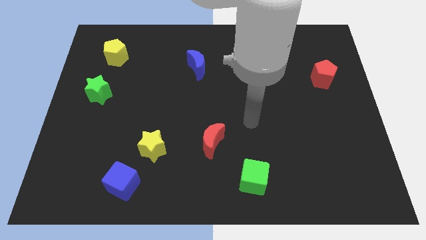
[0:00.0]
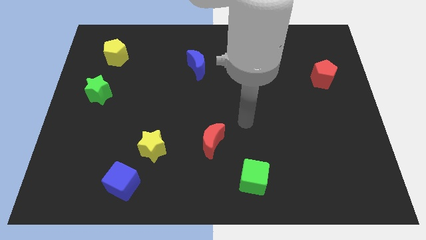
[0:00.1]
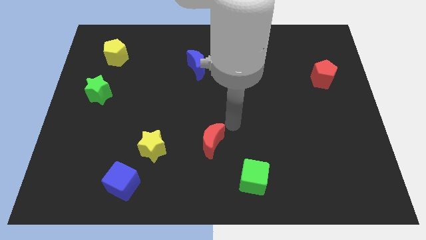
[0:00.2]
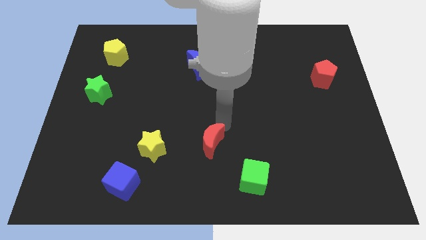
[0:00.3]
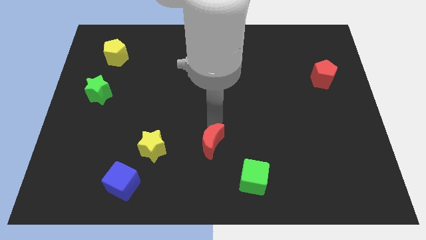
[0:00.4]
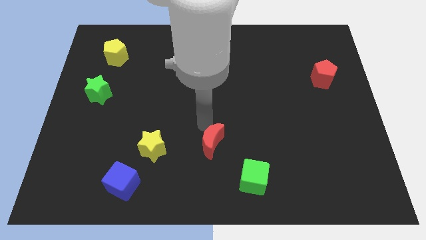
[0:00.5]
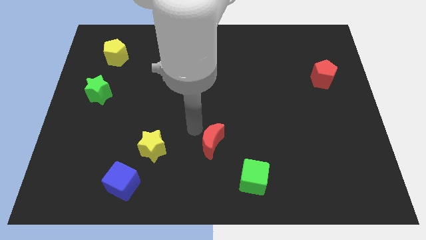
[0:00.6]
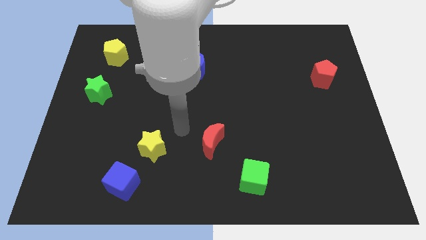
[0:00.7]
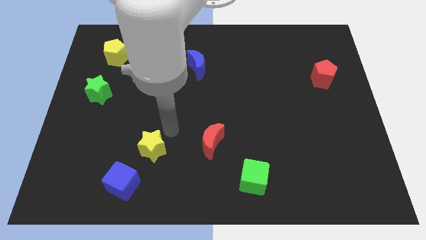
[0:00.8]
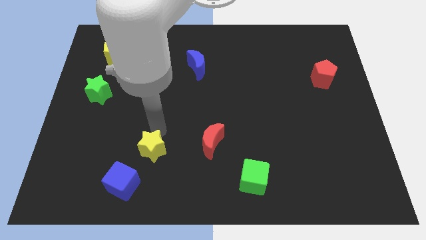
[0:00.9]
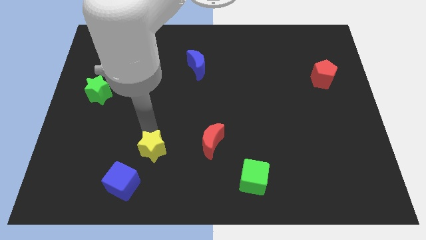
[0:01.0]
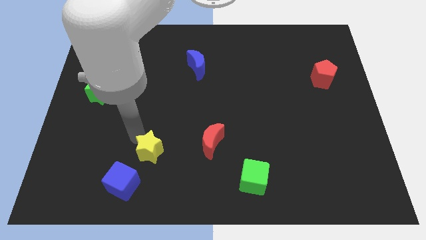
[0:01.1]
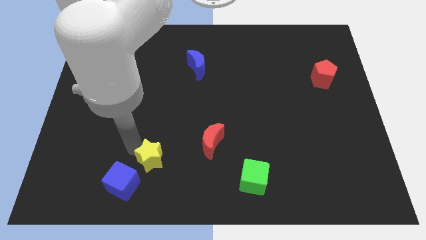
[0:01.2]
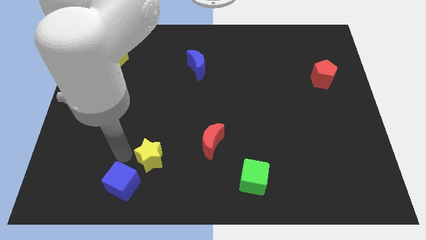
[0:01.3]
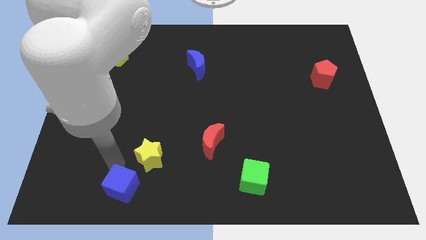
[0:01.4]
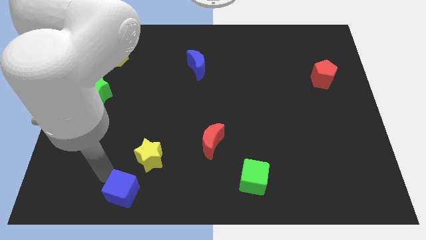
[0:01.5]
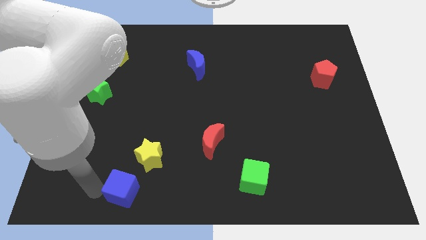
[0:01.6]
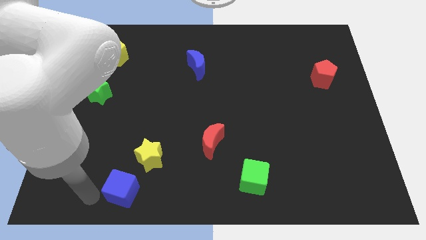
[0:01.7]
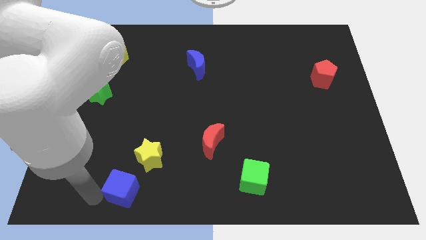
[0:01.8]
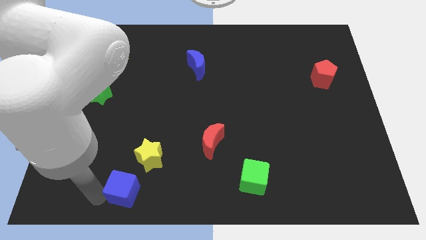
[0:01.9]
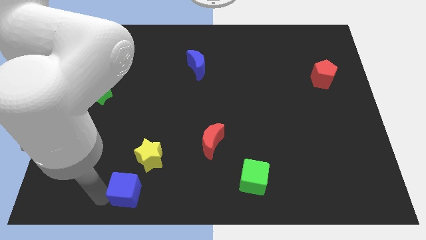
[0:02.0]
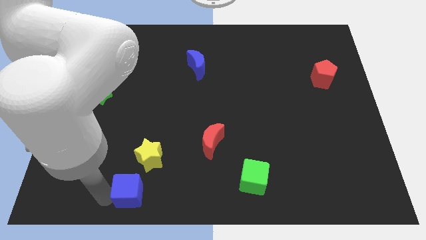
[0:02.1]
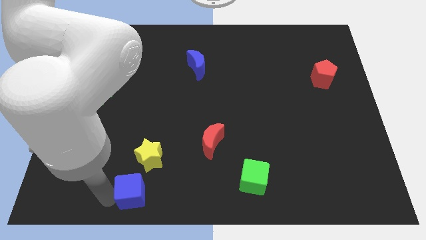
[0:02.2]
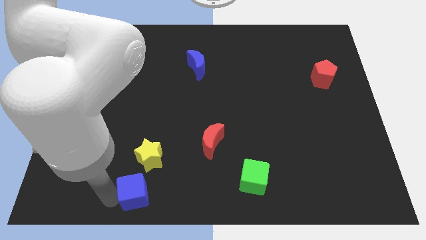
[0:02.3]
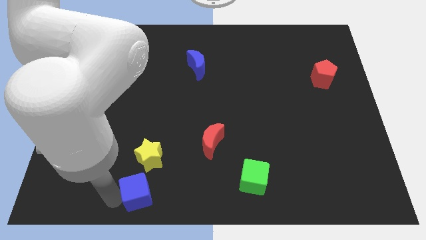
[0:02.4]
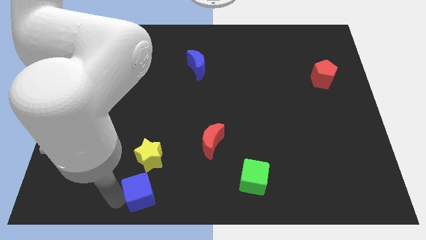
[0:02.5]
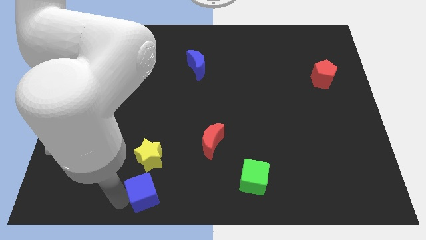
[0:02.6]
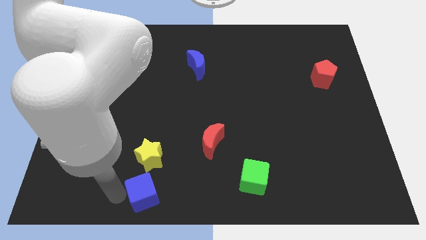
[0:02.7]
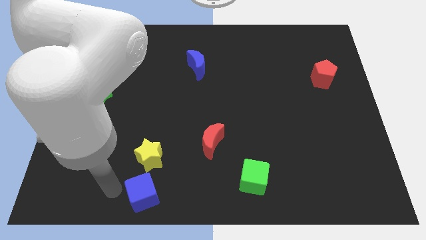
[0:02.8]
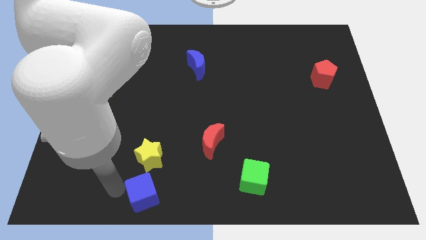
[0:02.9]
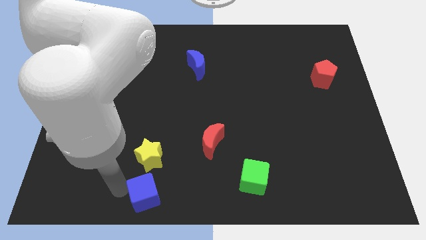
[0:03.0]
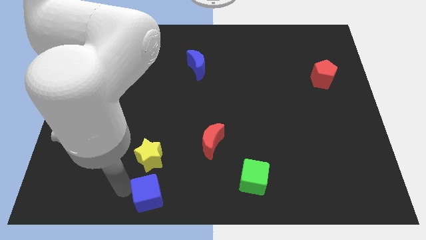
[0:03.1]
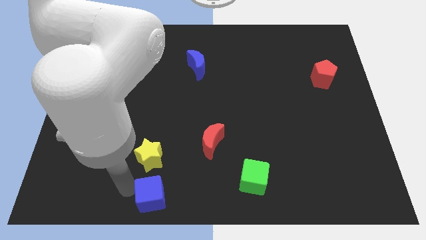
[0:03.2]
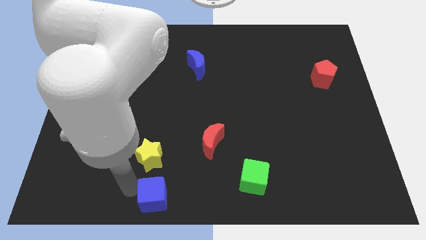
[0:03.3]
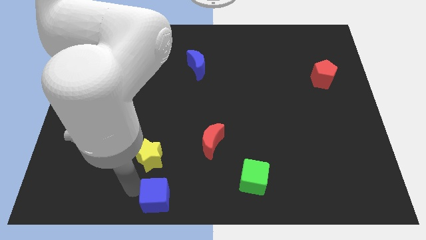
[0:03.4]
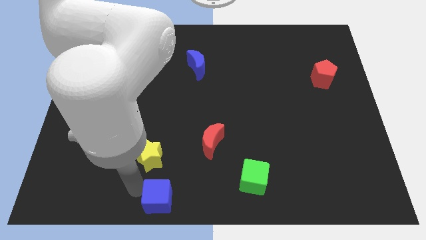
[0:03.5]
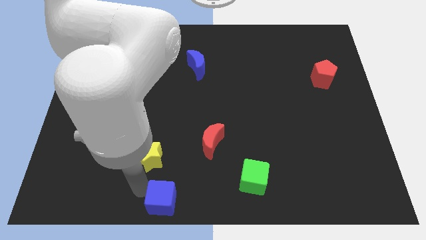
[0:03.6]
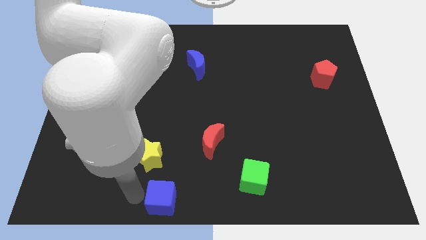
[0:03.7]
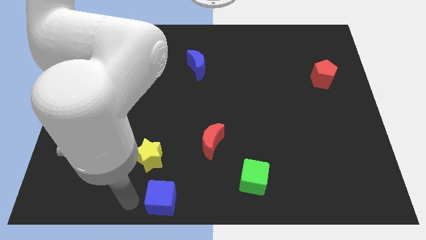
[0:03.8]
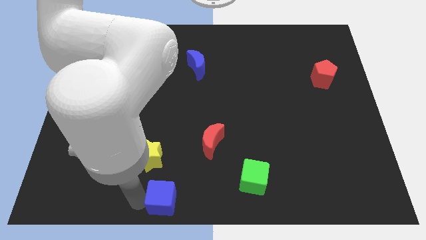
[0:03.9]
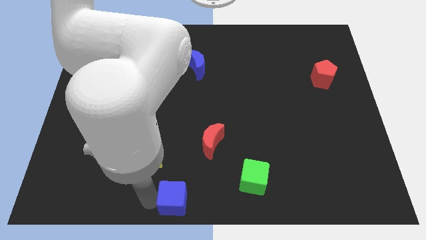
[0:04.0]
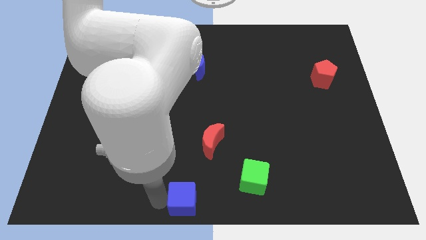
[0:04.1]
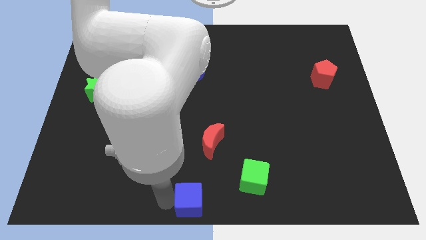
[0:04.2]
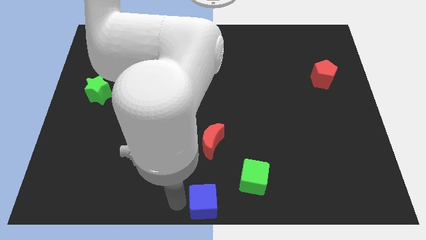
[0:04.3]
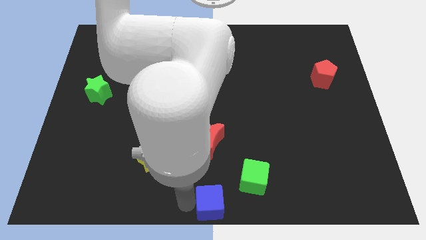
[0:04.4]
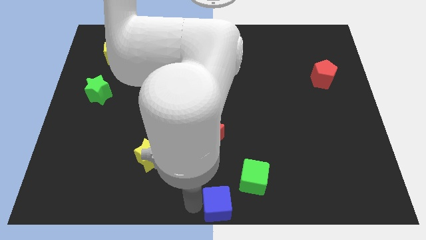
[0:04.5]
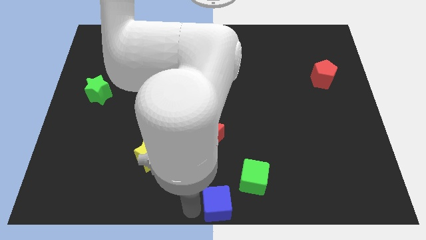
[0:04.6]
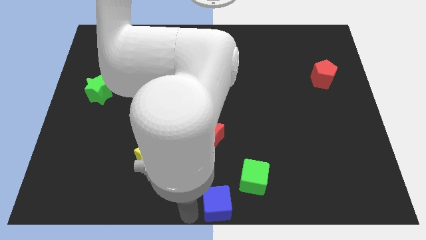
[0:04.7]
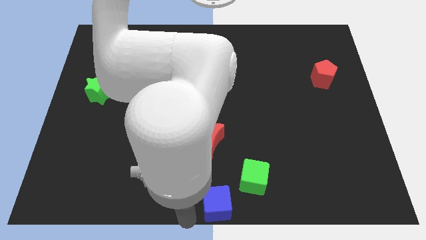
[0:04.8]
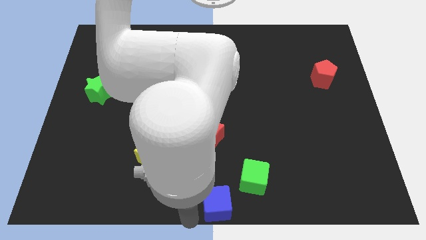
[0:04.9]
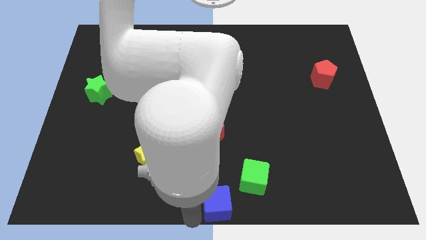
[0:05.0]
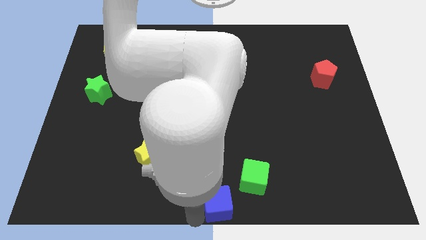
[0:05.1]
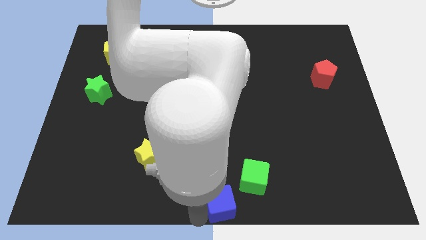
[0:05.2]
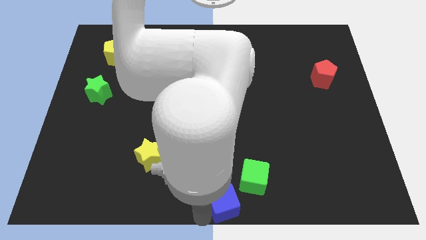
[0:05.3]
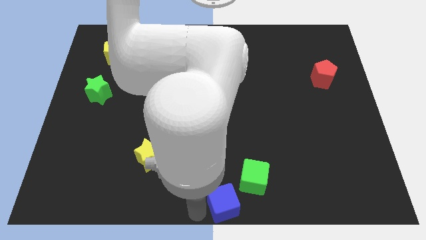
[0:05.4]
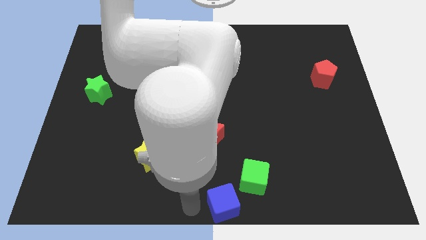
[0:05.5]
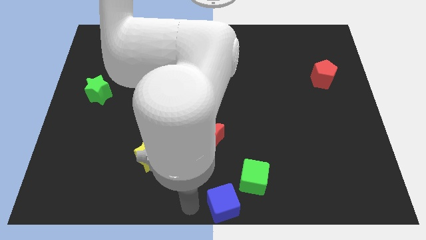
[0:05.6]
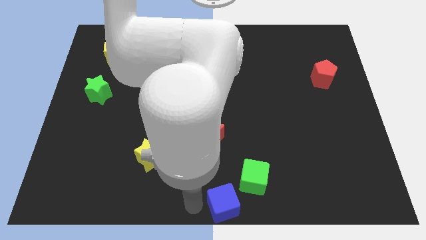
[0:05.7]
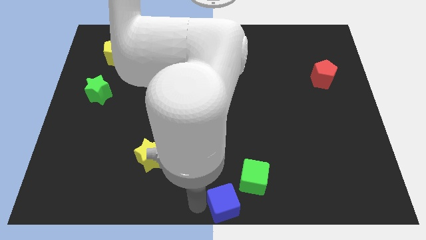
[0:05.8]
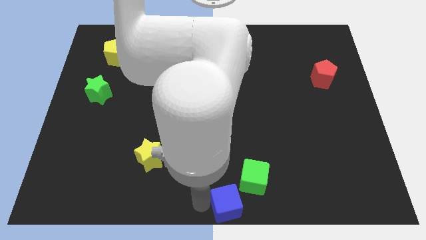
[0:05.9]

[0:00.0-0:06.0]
move the blue cube right

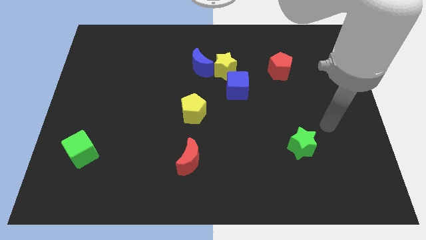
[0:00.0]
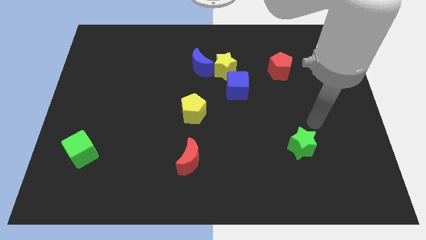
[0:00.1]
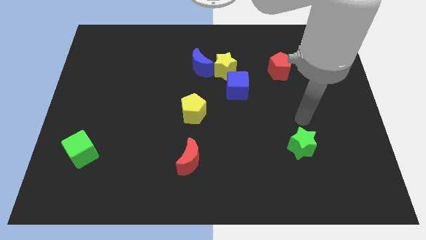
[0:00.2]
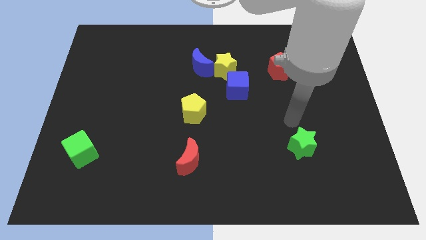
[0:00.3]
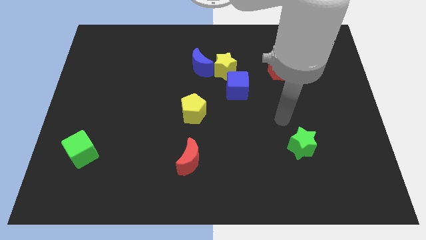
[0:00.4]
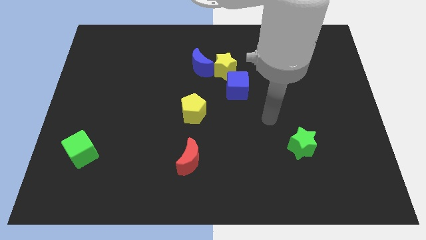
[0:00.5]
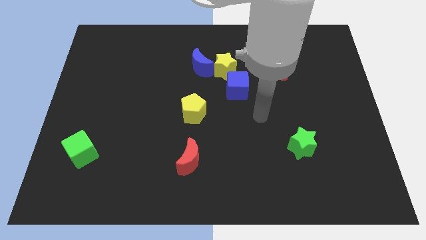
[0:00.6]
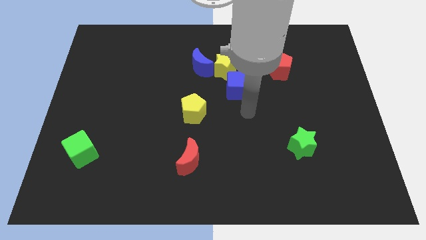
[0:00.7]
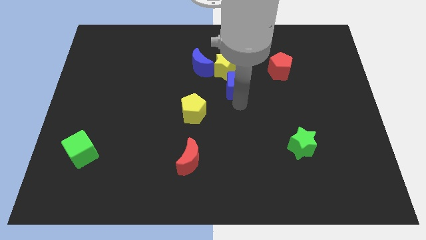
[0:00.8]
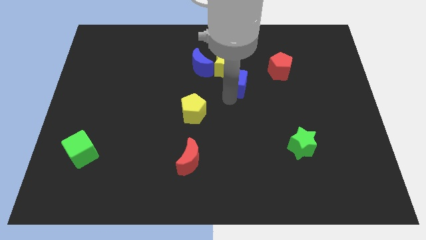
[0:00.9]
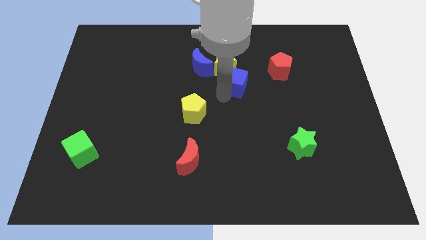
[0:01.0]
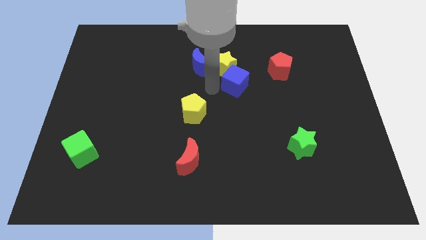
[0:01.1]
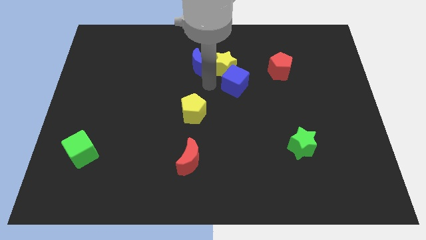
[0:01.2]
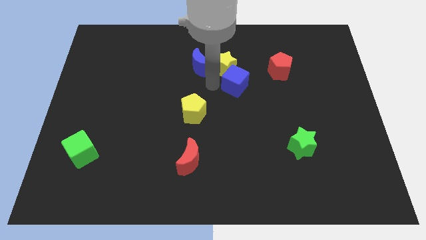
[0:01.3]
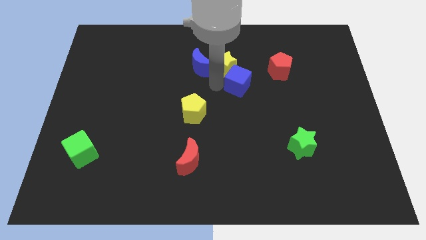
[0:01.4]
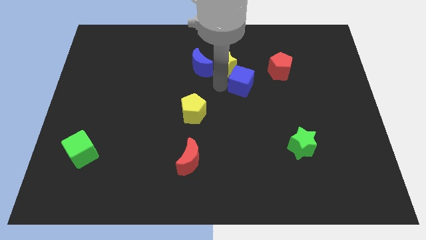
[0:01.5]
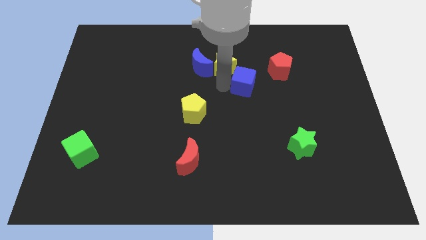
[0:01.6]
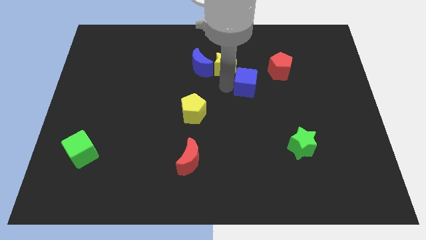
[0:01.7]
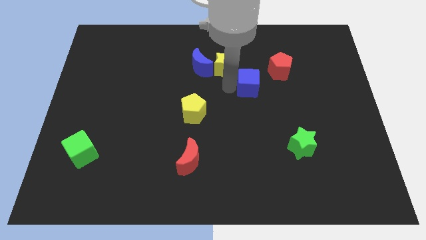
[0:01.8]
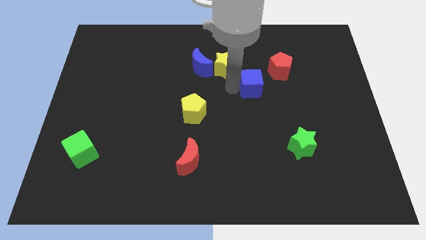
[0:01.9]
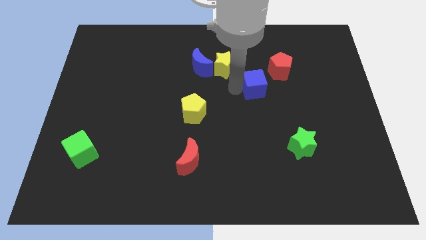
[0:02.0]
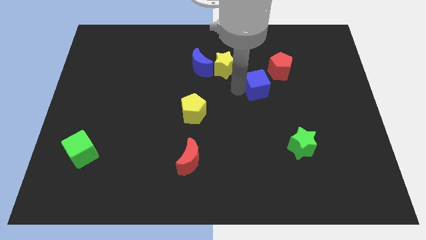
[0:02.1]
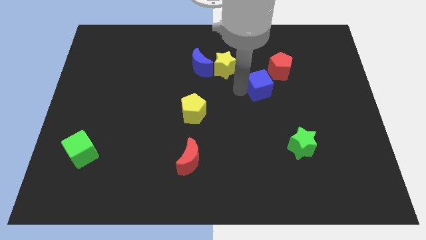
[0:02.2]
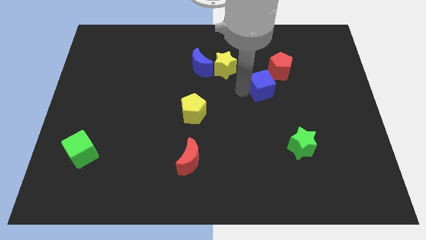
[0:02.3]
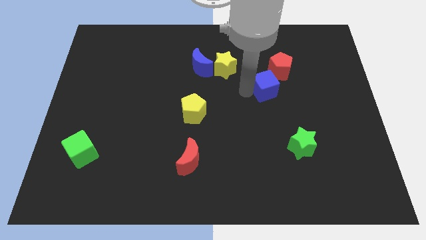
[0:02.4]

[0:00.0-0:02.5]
move the blue cube right a bit
